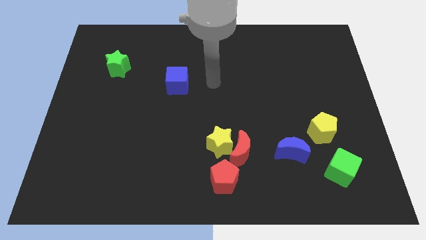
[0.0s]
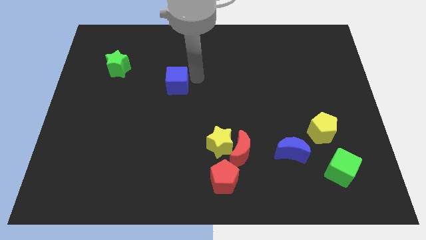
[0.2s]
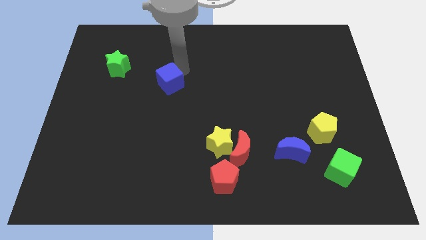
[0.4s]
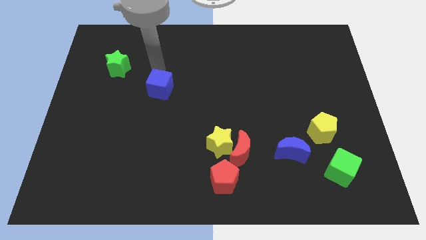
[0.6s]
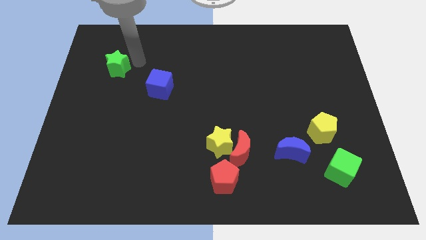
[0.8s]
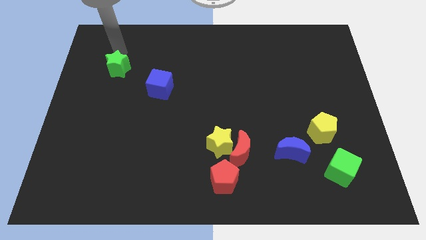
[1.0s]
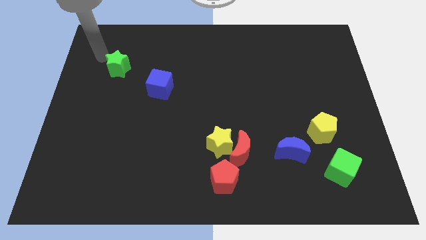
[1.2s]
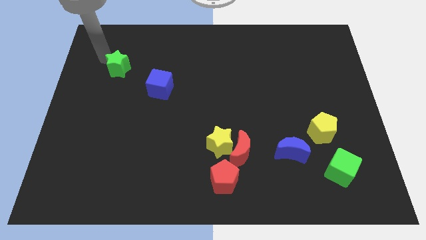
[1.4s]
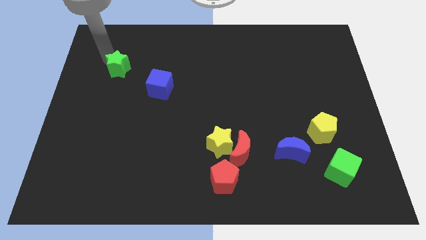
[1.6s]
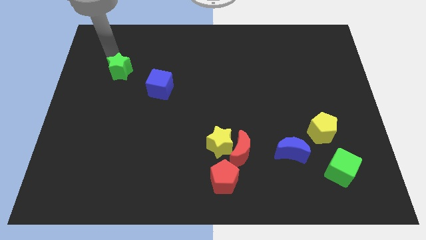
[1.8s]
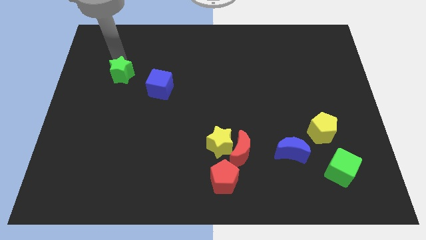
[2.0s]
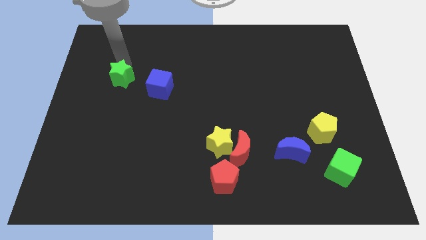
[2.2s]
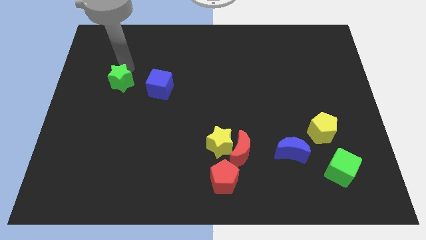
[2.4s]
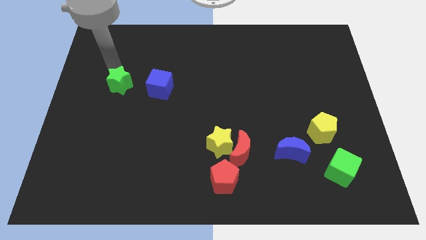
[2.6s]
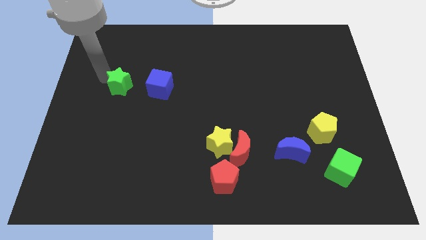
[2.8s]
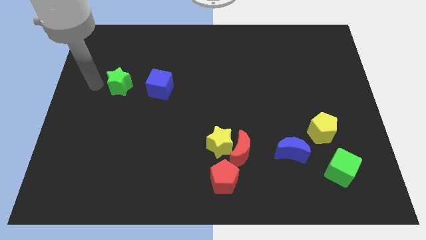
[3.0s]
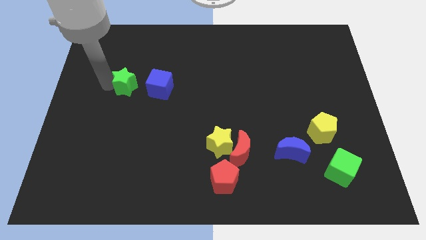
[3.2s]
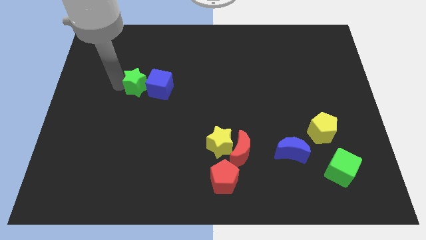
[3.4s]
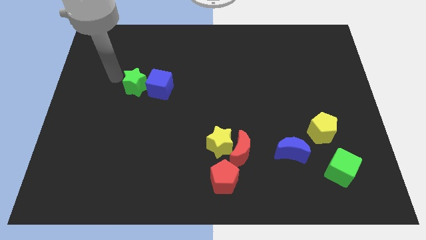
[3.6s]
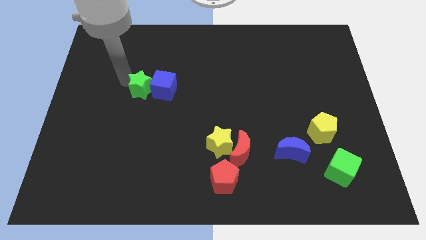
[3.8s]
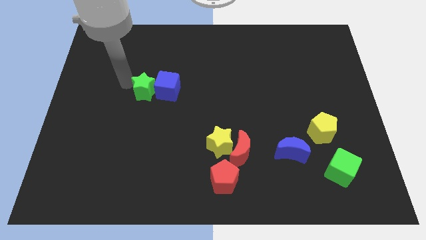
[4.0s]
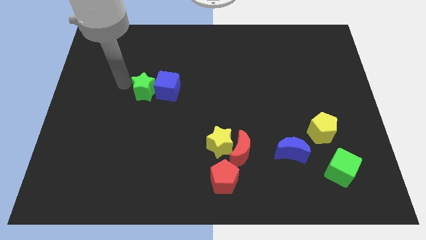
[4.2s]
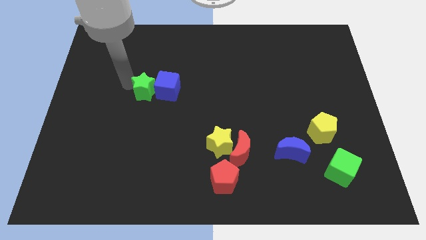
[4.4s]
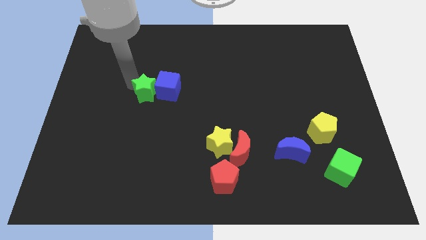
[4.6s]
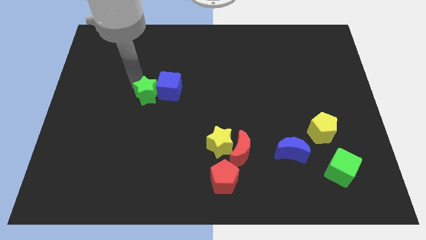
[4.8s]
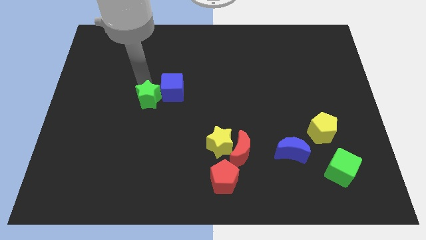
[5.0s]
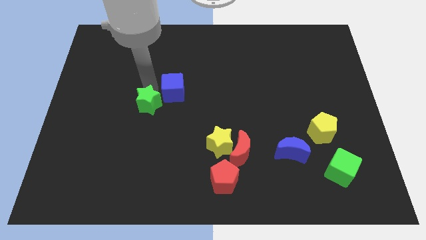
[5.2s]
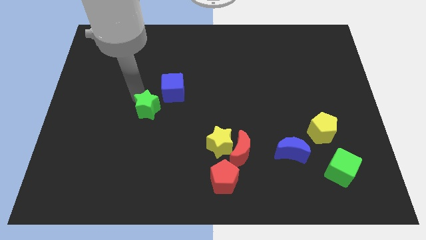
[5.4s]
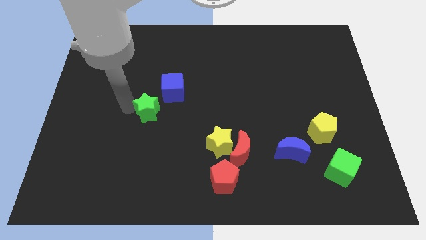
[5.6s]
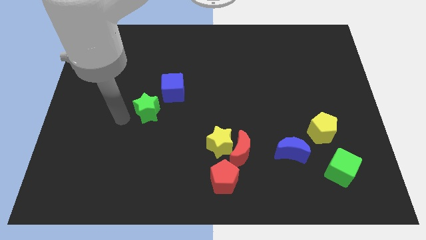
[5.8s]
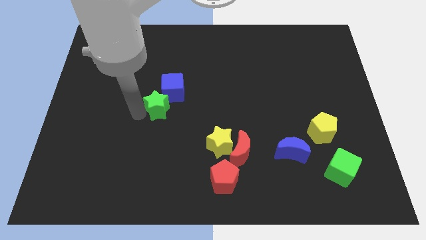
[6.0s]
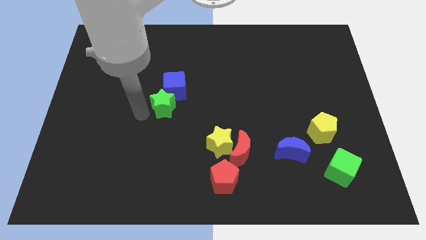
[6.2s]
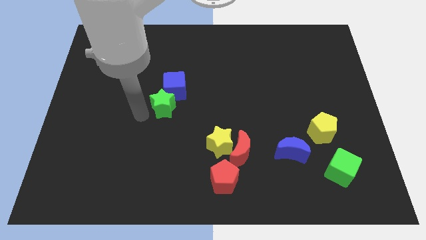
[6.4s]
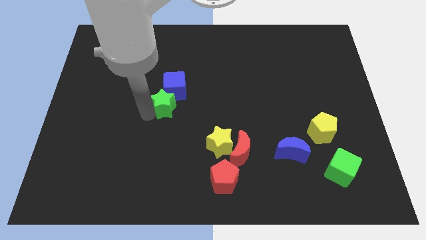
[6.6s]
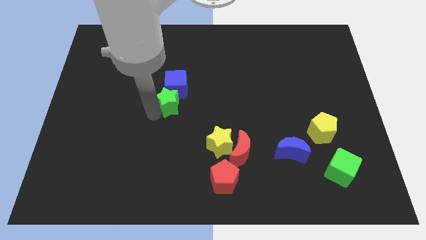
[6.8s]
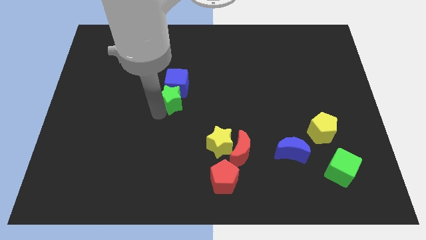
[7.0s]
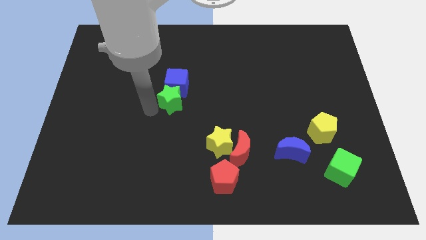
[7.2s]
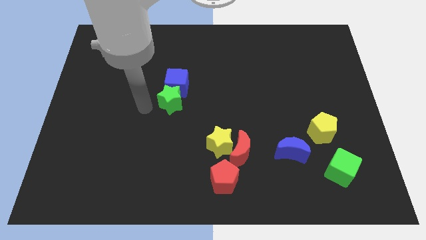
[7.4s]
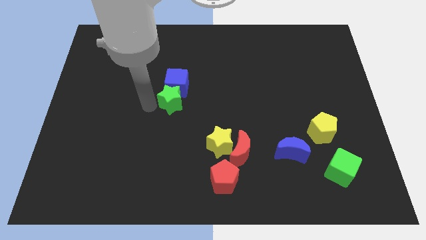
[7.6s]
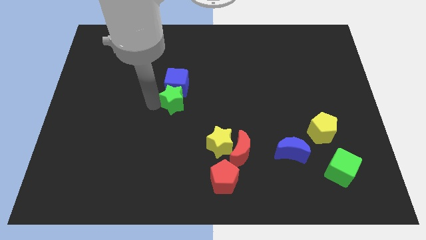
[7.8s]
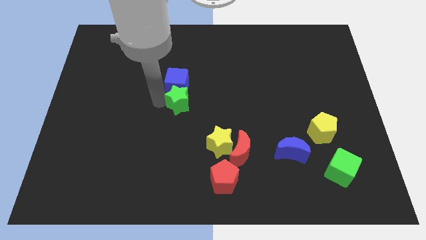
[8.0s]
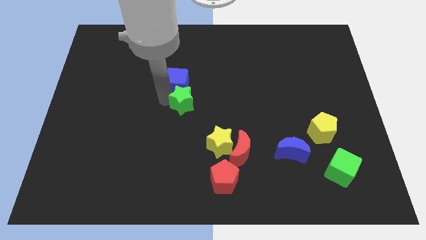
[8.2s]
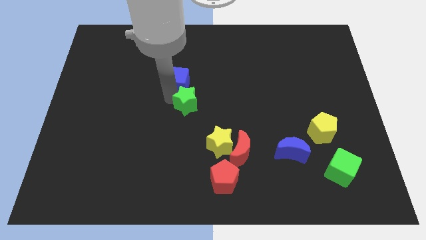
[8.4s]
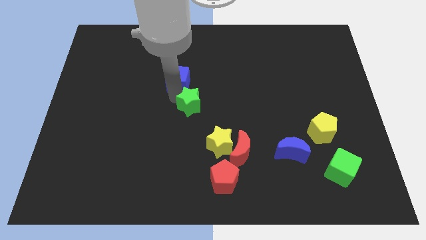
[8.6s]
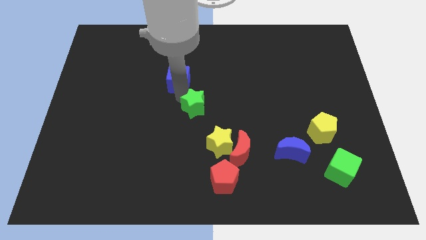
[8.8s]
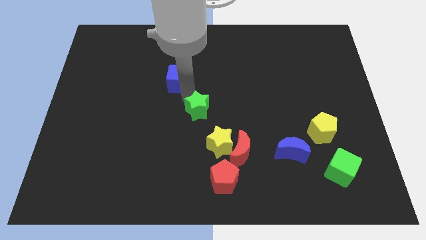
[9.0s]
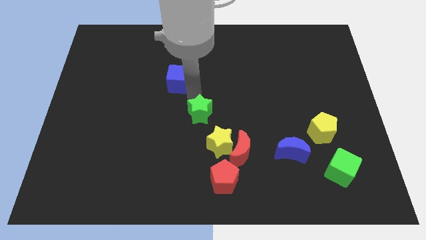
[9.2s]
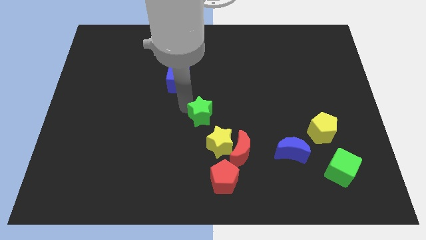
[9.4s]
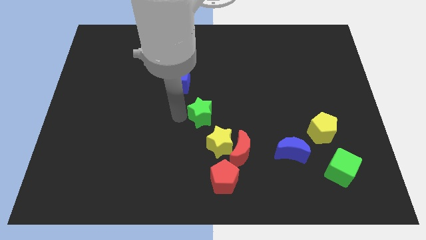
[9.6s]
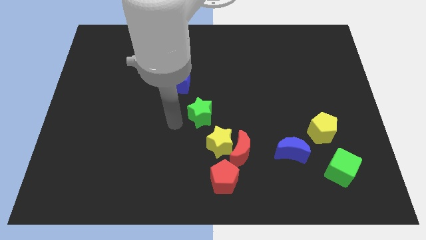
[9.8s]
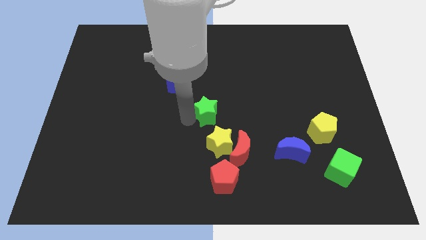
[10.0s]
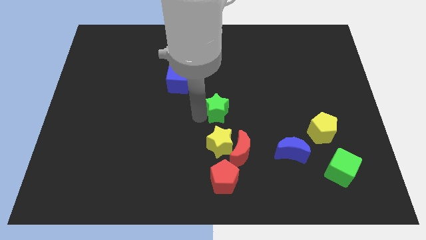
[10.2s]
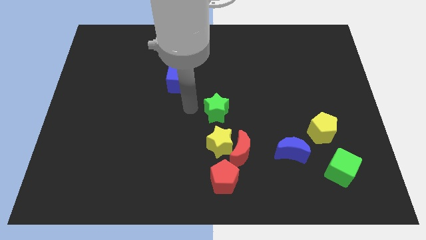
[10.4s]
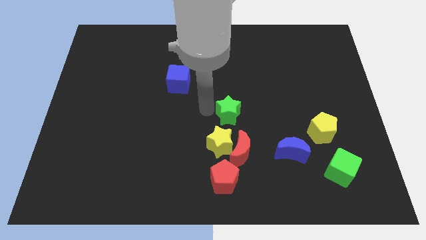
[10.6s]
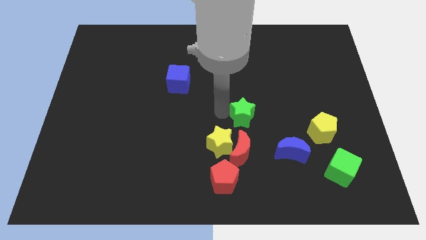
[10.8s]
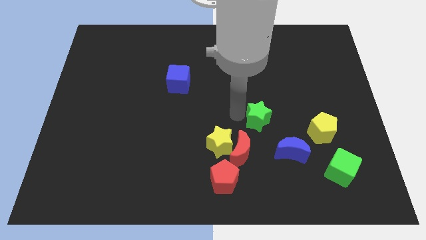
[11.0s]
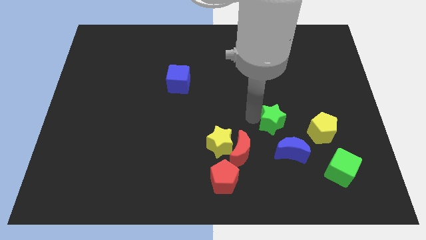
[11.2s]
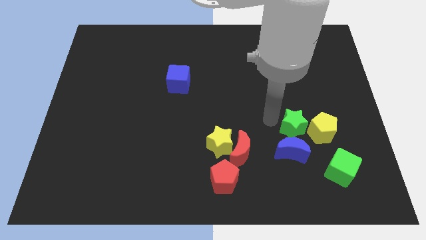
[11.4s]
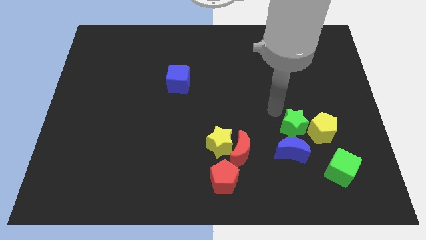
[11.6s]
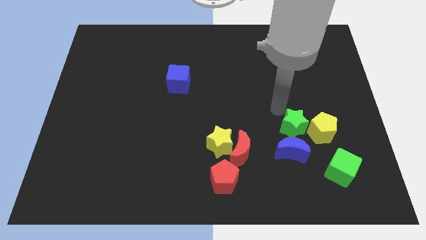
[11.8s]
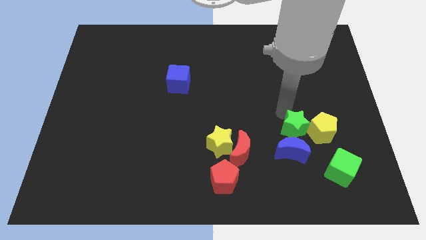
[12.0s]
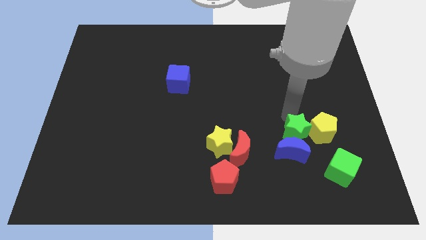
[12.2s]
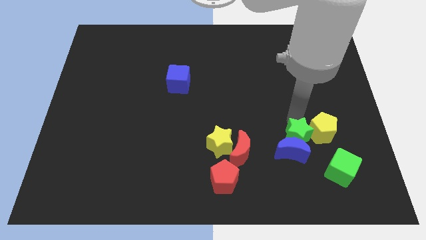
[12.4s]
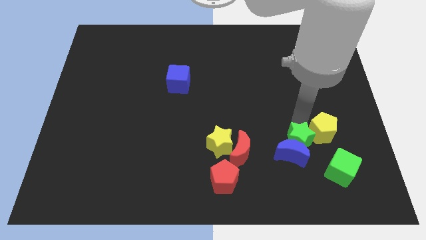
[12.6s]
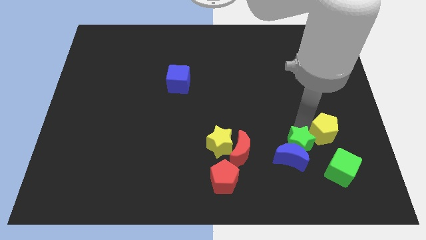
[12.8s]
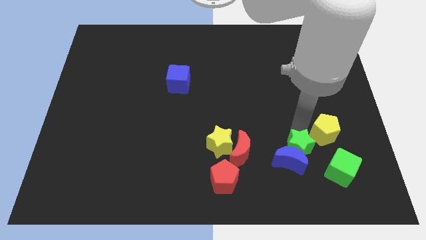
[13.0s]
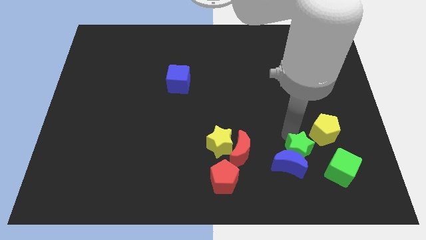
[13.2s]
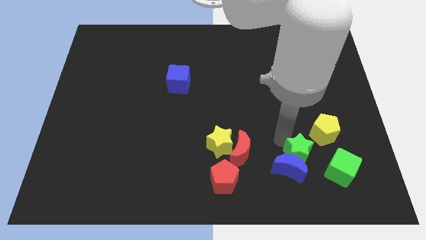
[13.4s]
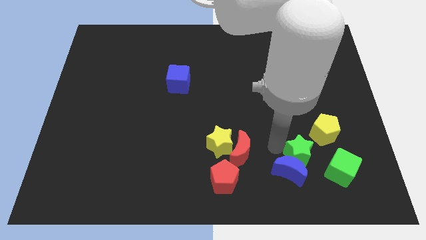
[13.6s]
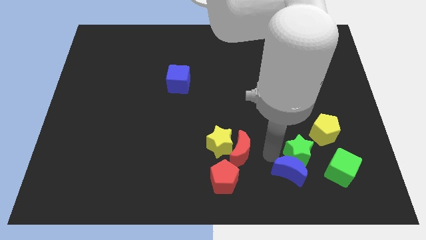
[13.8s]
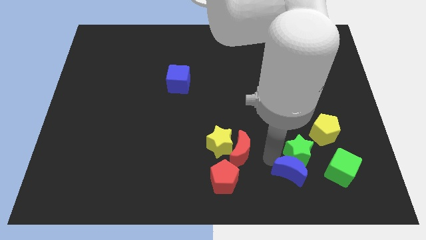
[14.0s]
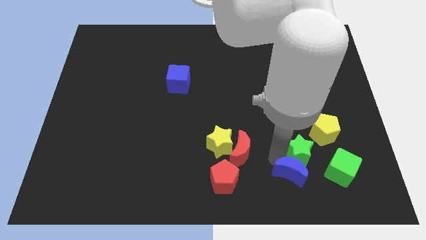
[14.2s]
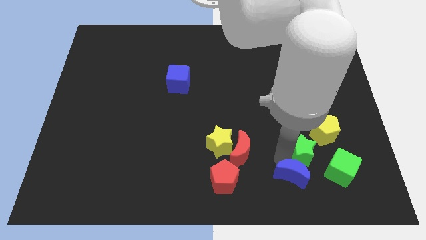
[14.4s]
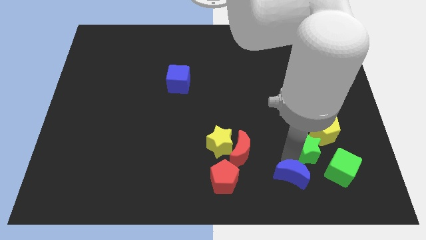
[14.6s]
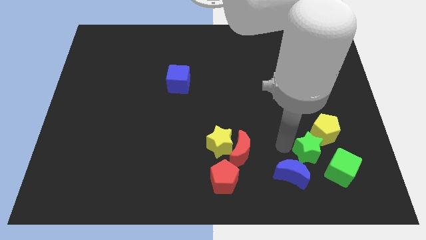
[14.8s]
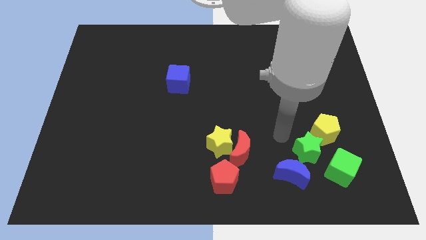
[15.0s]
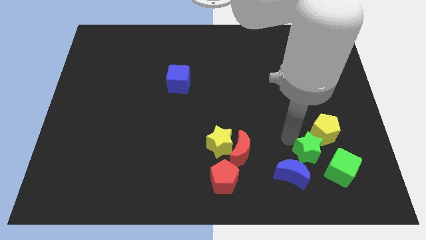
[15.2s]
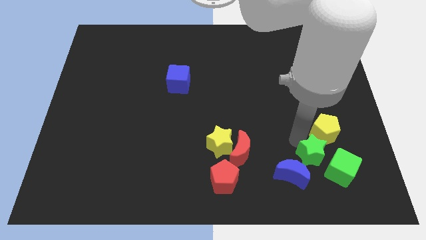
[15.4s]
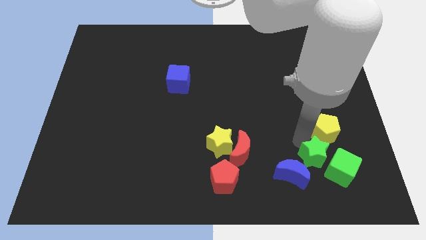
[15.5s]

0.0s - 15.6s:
slide the green star next to the green cube
